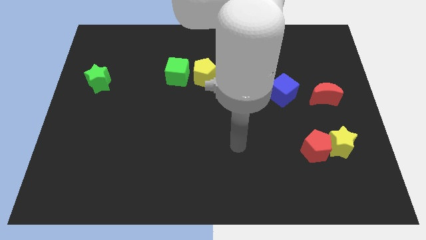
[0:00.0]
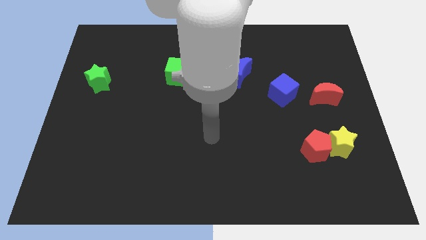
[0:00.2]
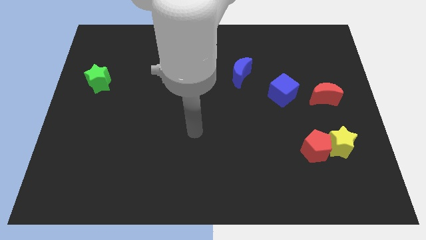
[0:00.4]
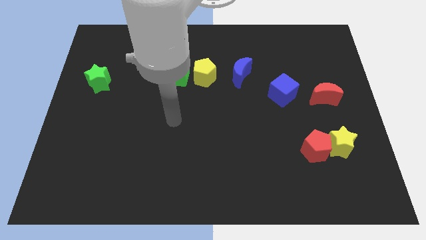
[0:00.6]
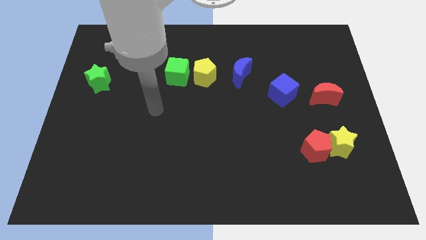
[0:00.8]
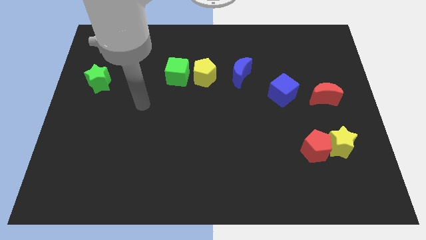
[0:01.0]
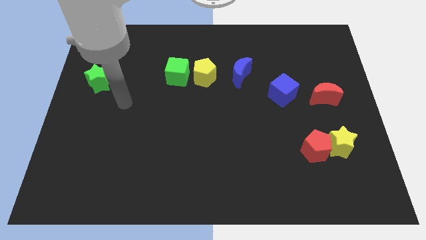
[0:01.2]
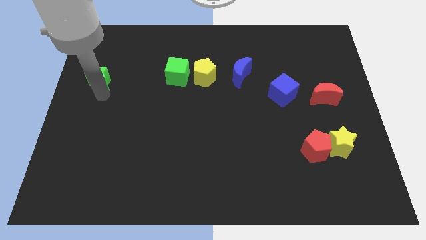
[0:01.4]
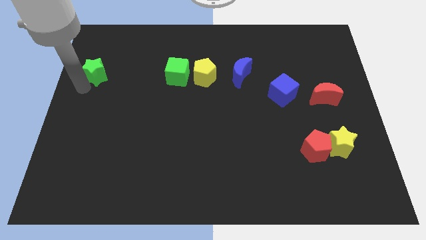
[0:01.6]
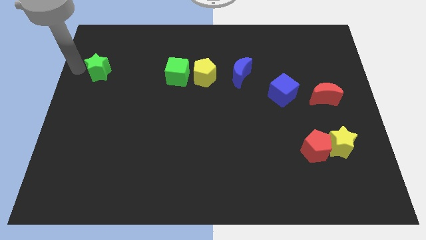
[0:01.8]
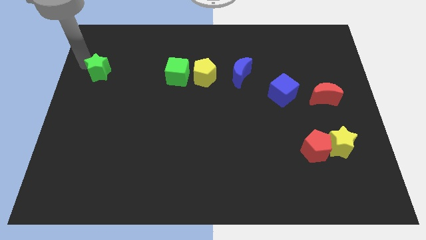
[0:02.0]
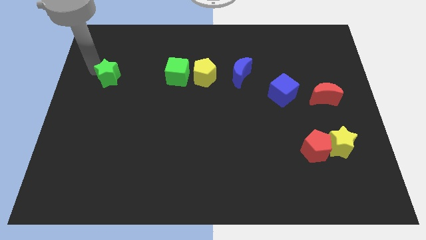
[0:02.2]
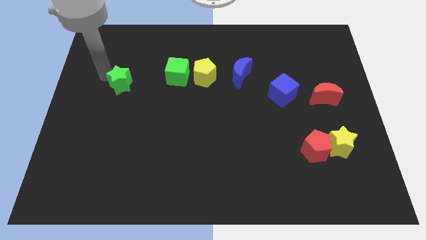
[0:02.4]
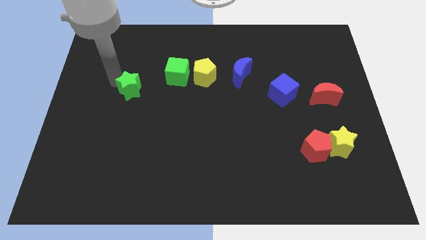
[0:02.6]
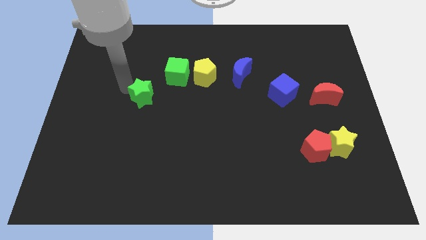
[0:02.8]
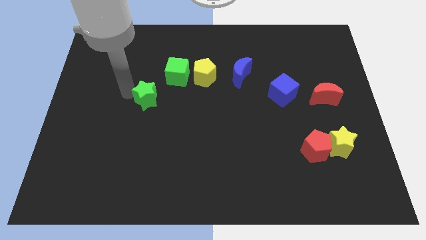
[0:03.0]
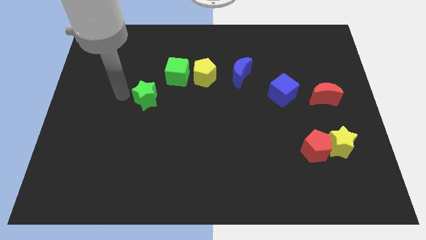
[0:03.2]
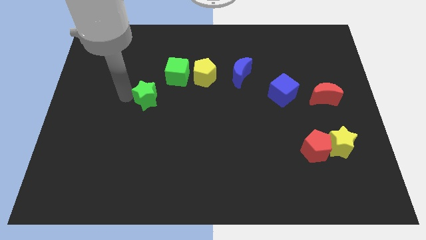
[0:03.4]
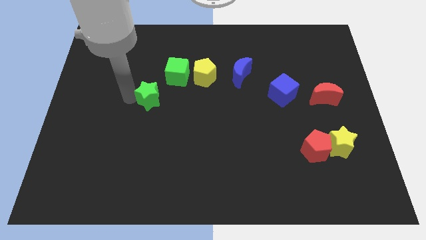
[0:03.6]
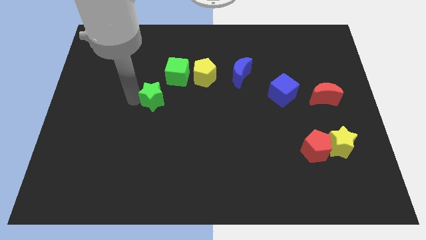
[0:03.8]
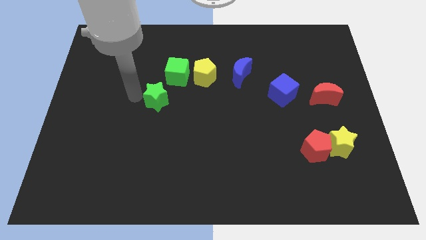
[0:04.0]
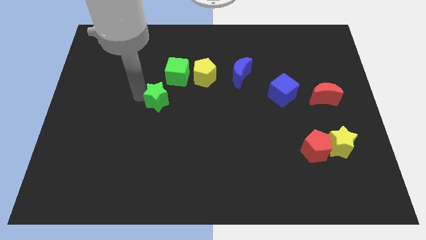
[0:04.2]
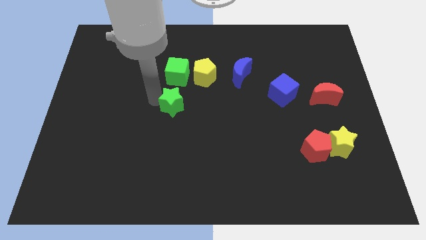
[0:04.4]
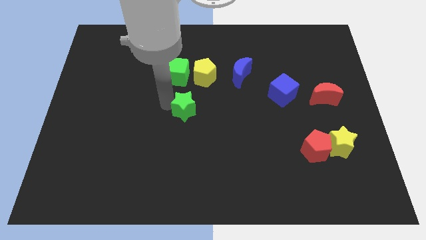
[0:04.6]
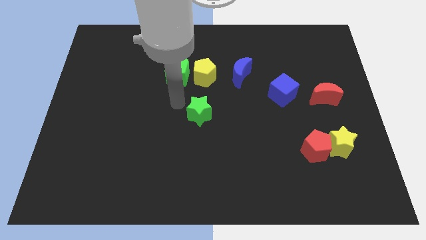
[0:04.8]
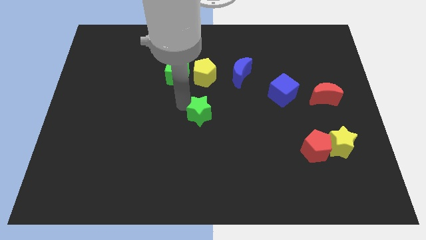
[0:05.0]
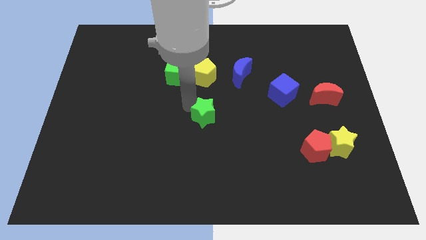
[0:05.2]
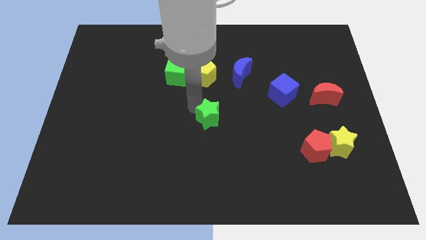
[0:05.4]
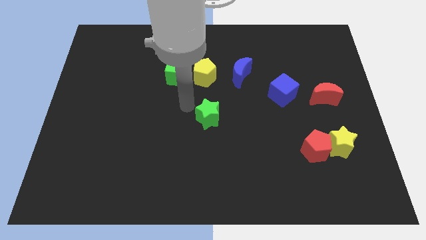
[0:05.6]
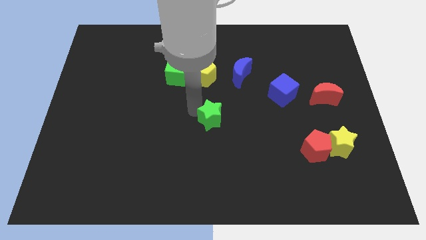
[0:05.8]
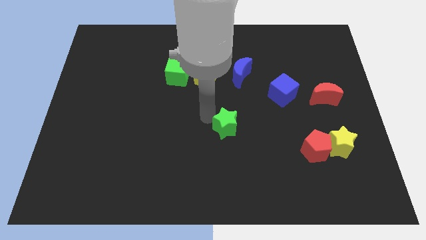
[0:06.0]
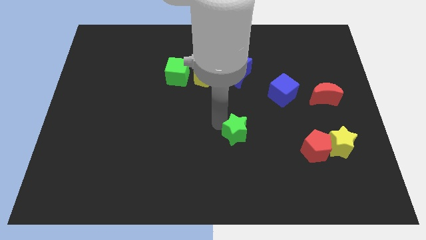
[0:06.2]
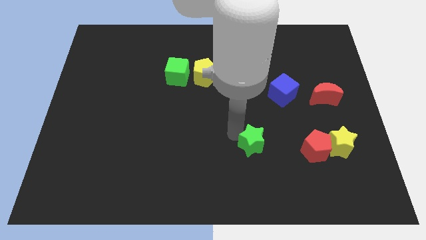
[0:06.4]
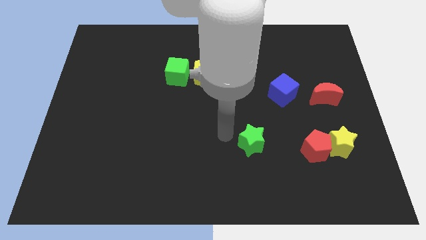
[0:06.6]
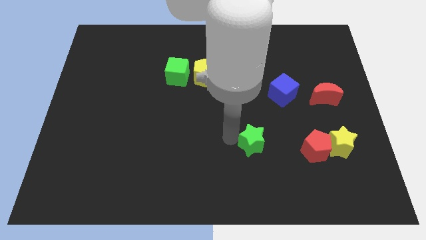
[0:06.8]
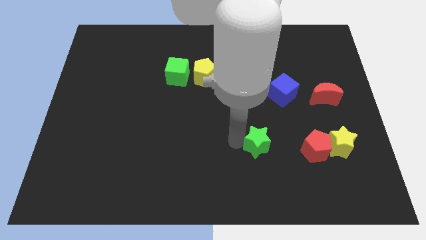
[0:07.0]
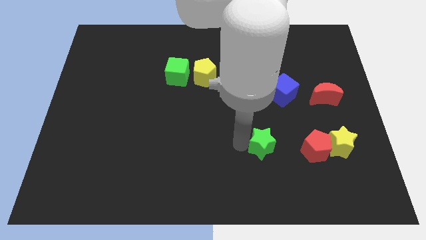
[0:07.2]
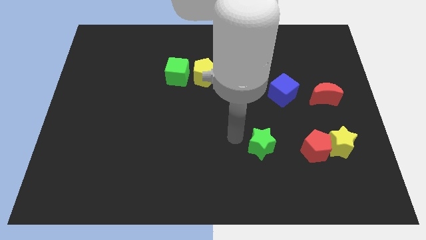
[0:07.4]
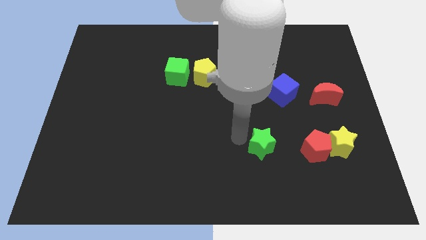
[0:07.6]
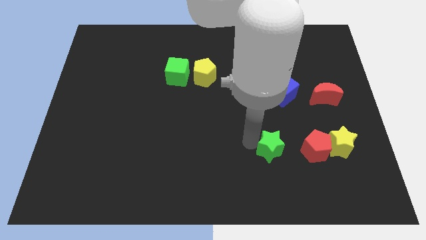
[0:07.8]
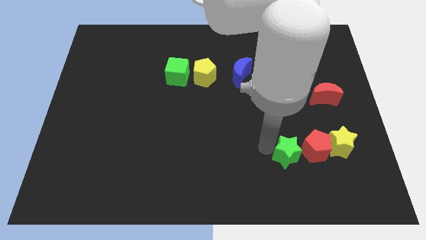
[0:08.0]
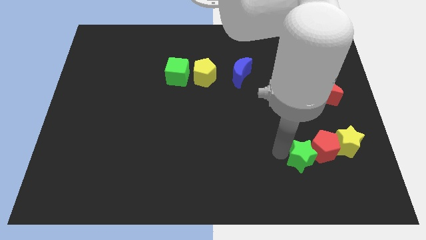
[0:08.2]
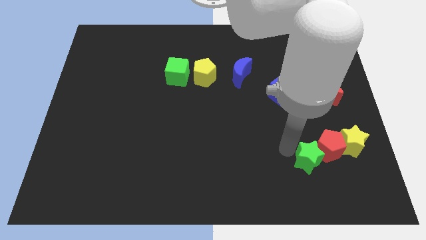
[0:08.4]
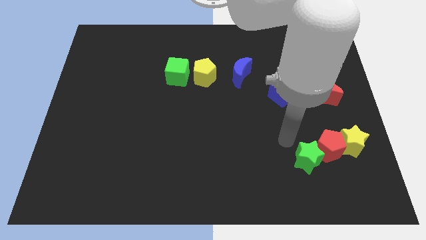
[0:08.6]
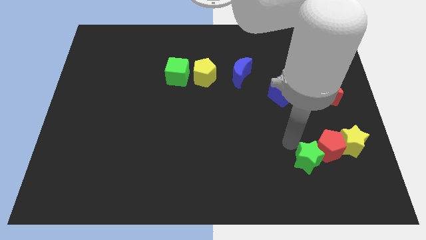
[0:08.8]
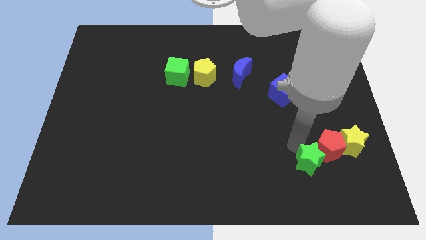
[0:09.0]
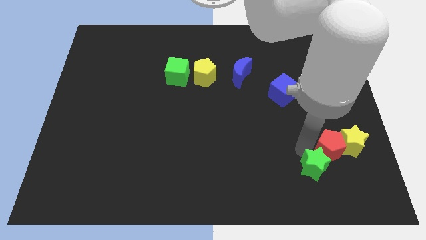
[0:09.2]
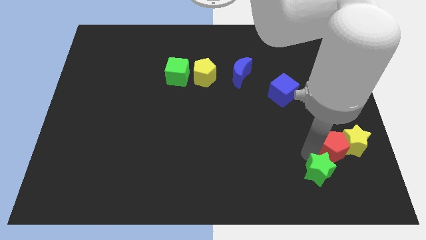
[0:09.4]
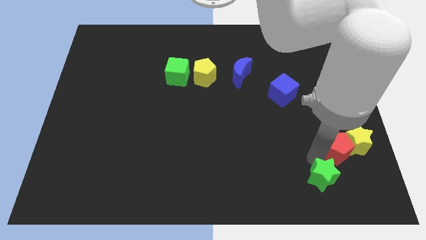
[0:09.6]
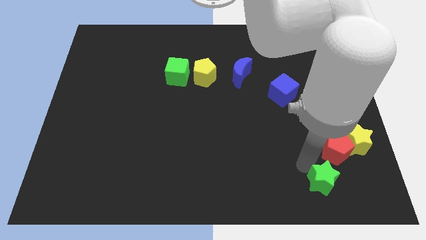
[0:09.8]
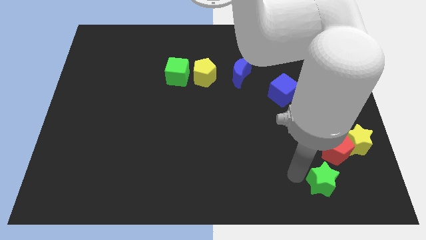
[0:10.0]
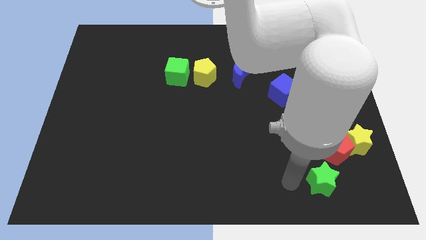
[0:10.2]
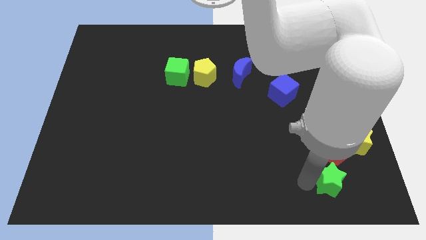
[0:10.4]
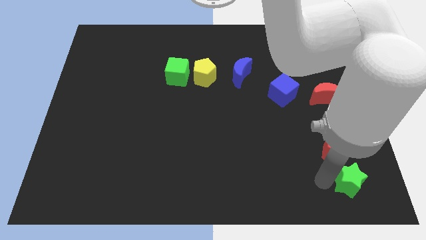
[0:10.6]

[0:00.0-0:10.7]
put the green star to the bottom right

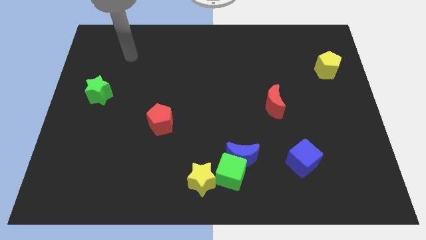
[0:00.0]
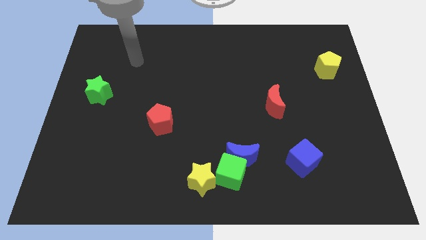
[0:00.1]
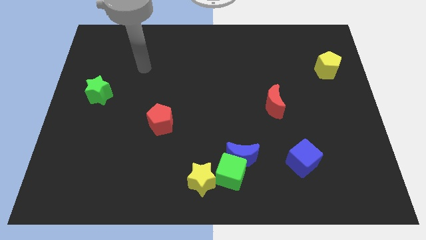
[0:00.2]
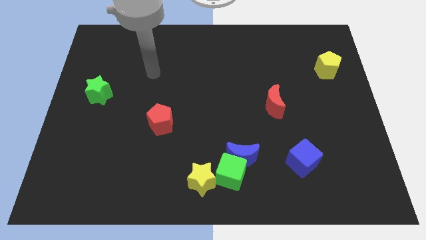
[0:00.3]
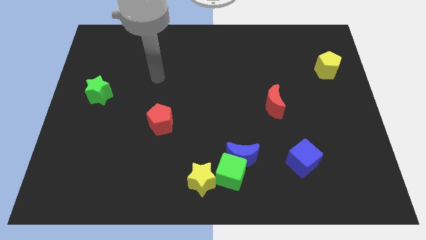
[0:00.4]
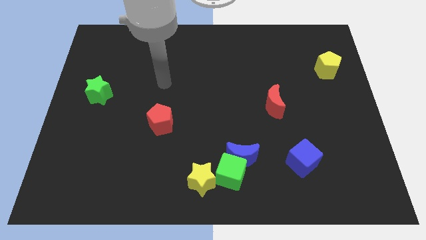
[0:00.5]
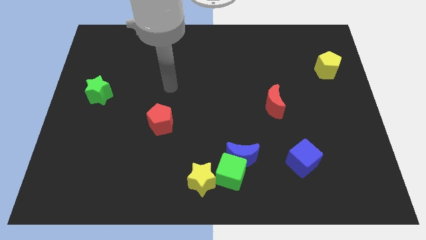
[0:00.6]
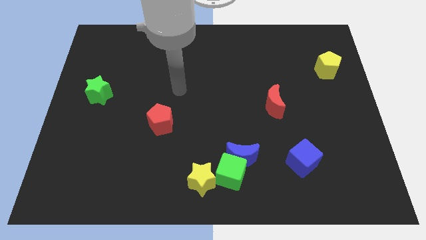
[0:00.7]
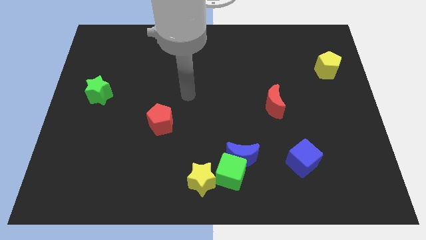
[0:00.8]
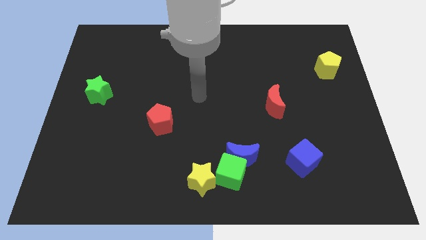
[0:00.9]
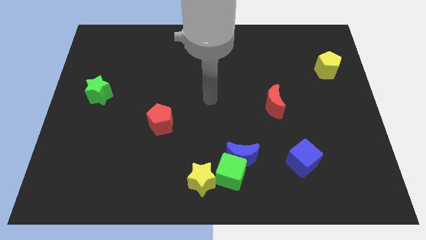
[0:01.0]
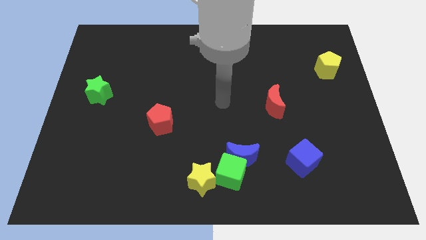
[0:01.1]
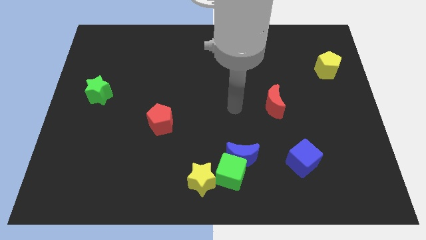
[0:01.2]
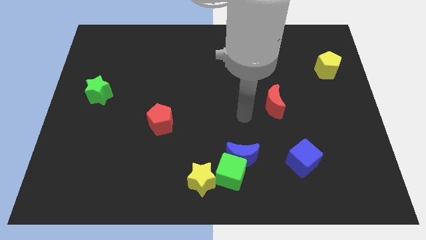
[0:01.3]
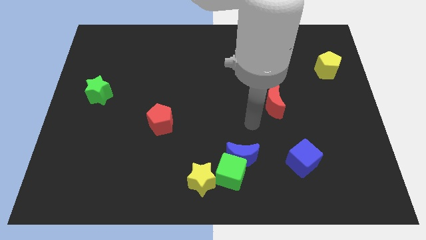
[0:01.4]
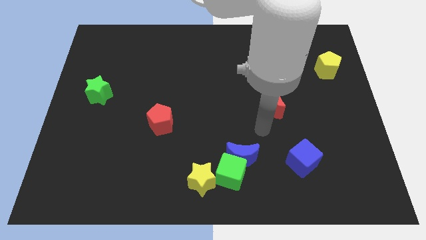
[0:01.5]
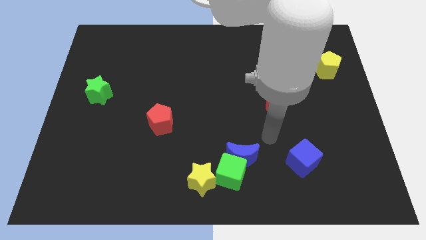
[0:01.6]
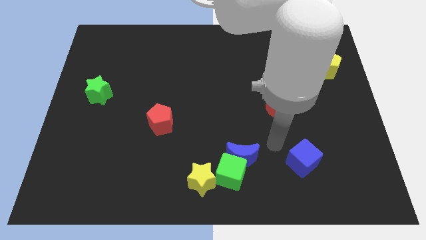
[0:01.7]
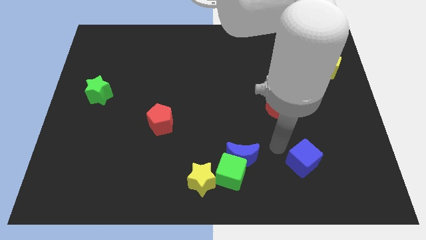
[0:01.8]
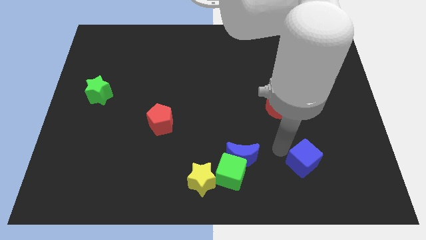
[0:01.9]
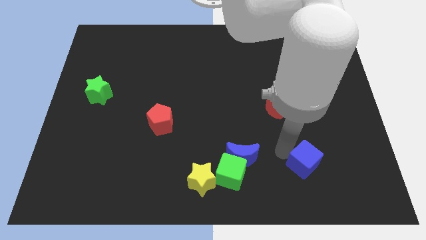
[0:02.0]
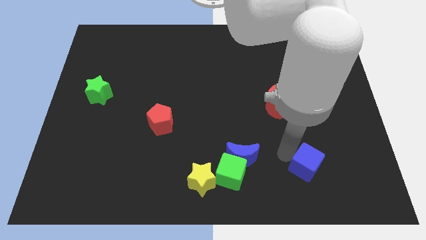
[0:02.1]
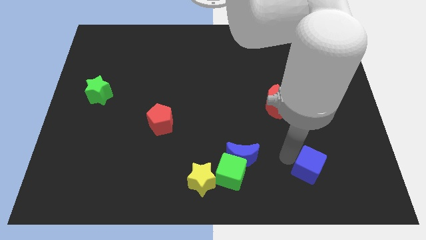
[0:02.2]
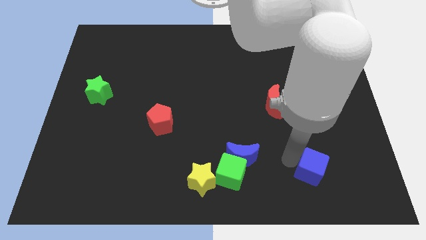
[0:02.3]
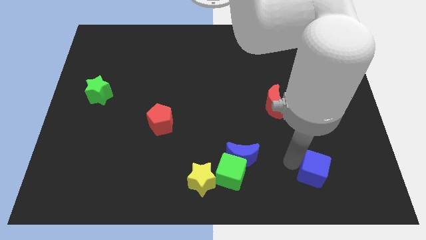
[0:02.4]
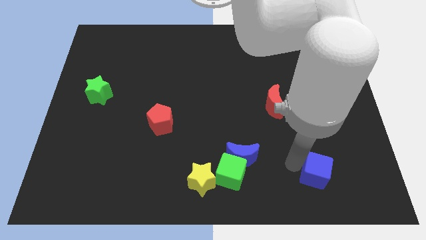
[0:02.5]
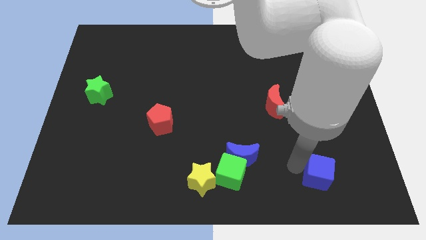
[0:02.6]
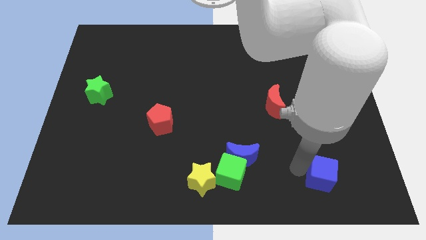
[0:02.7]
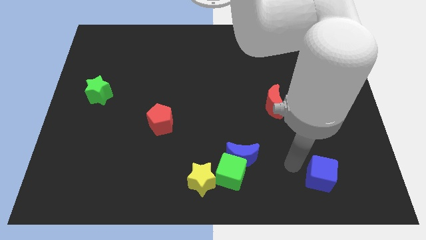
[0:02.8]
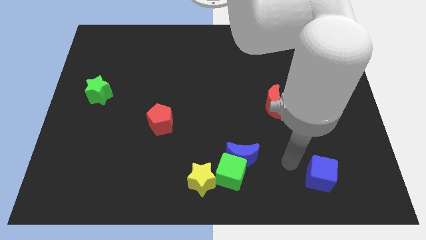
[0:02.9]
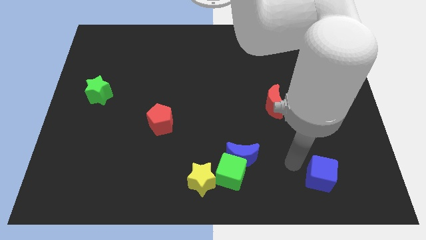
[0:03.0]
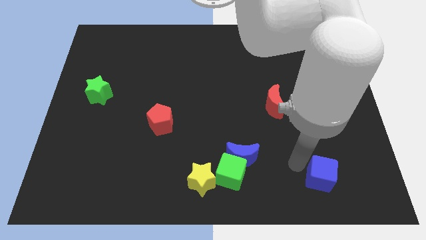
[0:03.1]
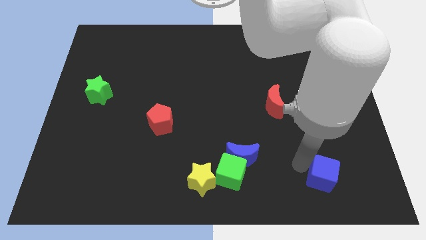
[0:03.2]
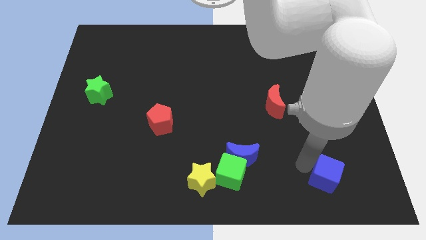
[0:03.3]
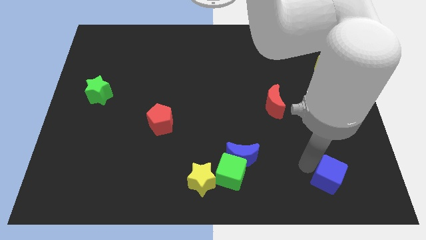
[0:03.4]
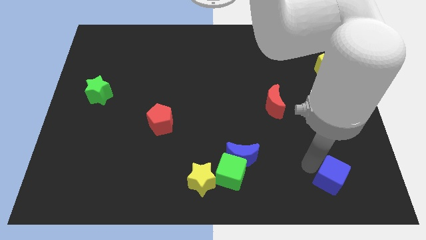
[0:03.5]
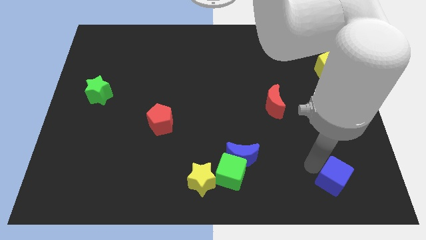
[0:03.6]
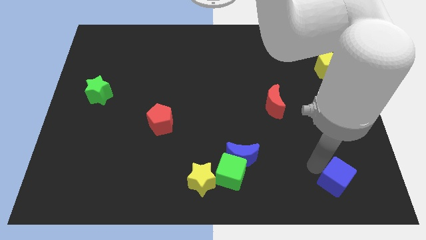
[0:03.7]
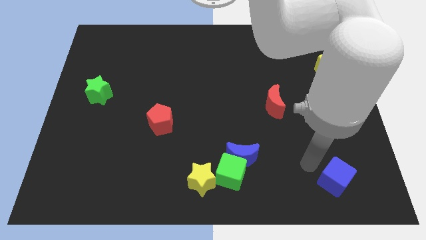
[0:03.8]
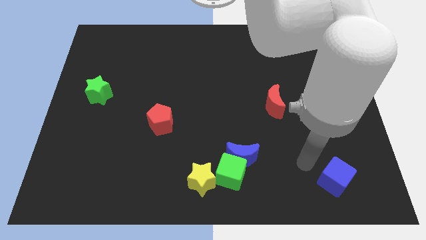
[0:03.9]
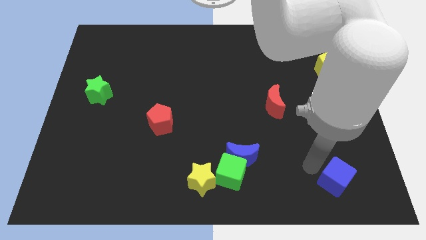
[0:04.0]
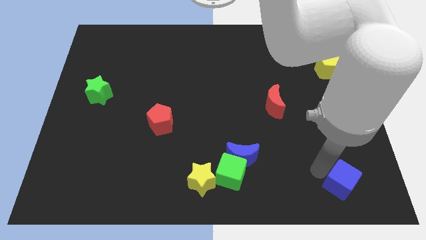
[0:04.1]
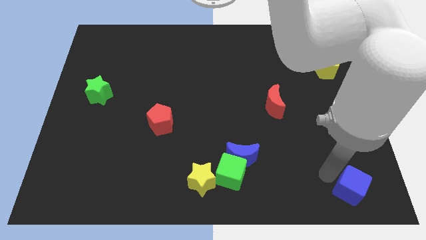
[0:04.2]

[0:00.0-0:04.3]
move the blue cube to the bottom right
